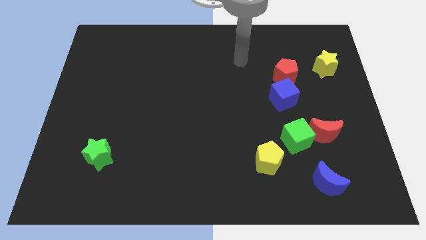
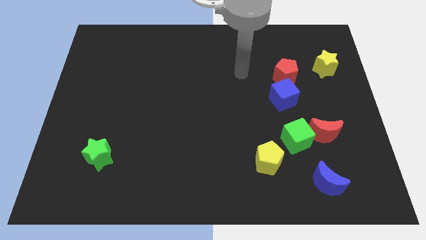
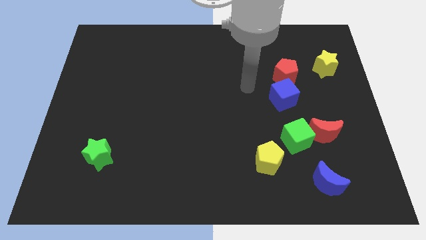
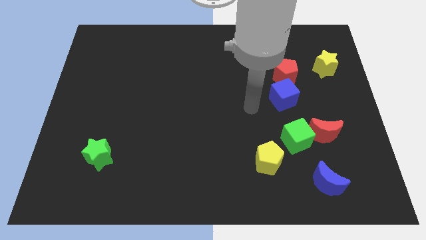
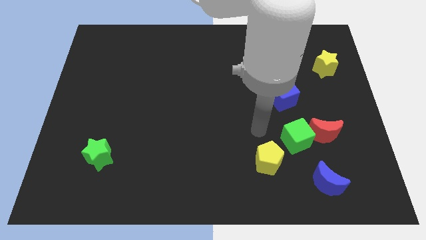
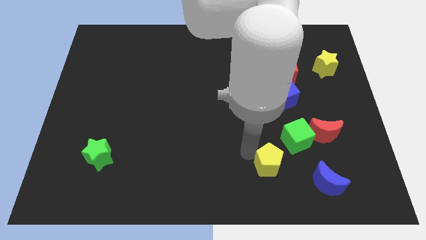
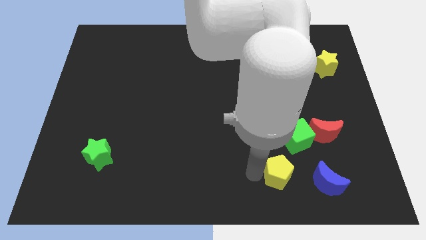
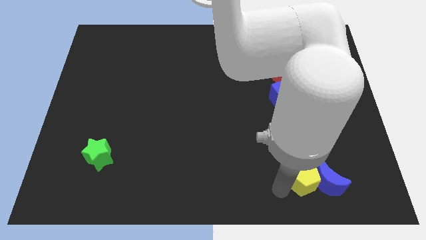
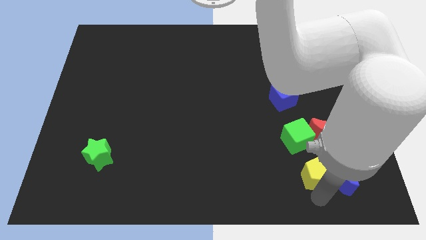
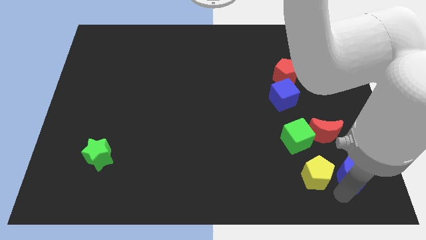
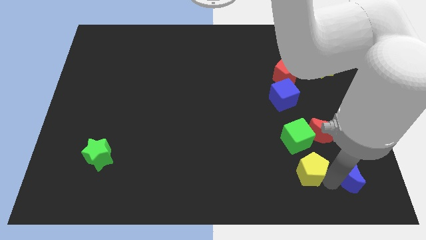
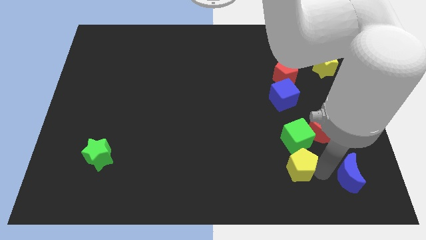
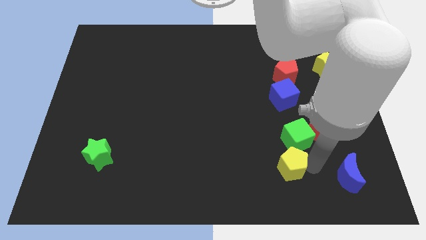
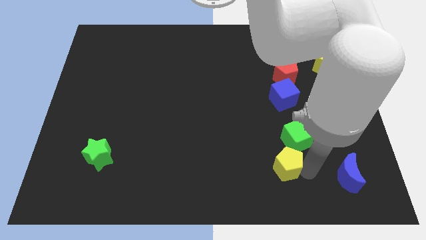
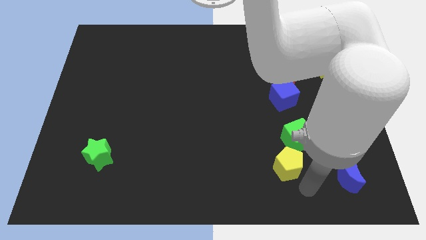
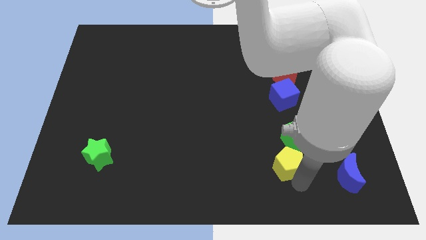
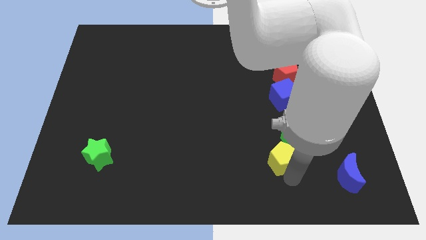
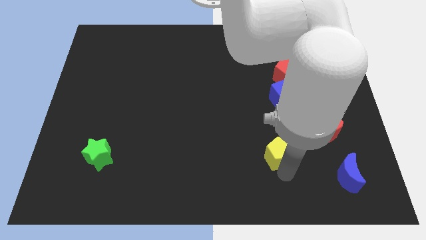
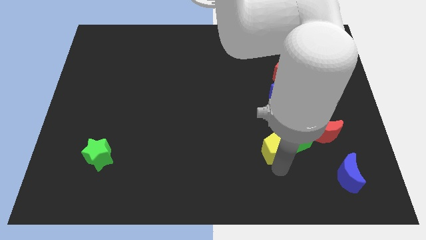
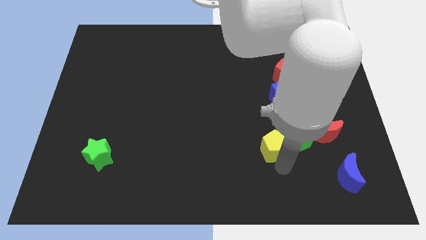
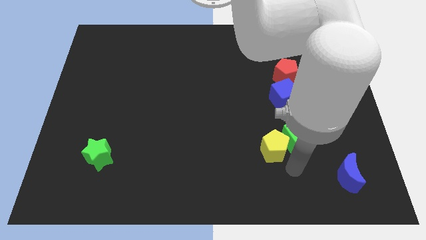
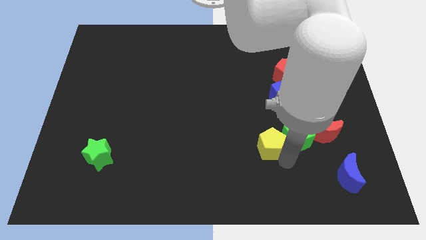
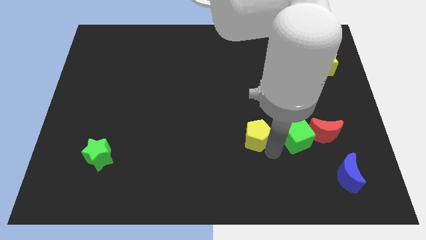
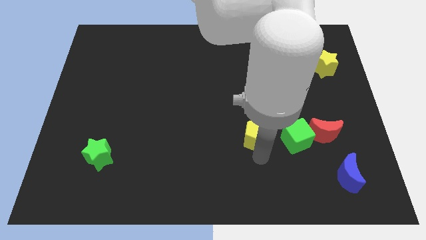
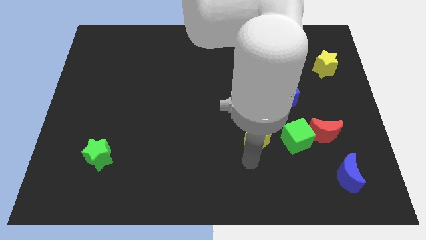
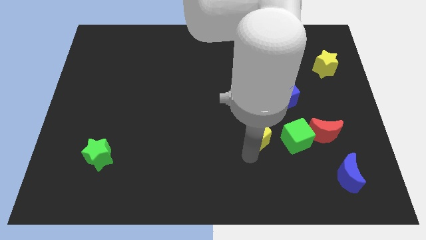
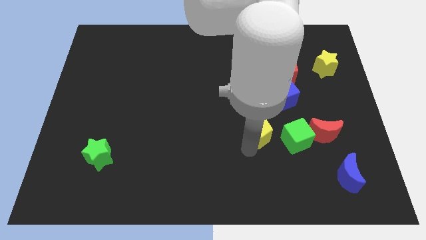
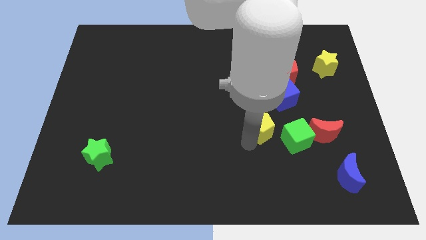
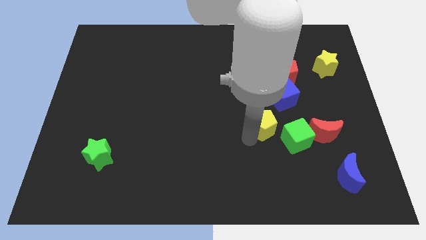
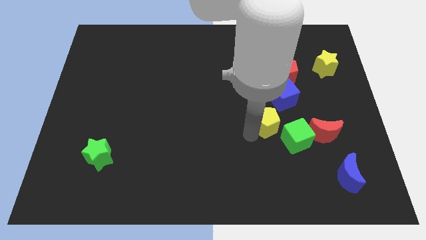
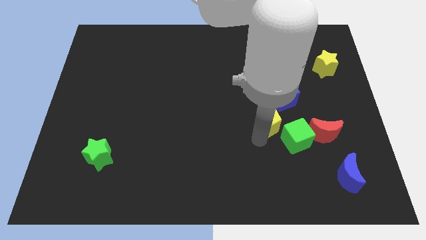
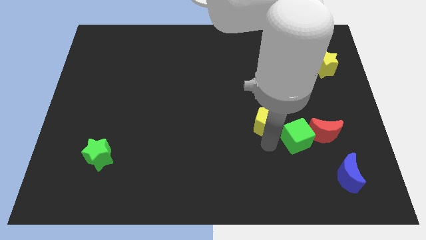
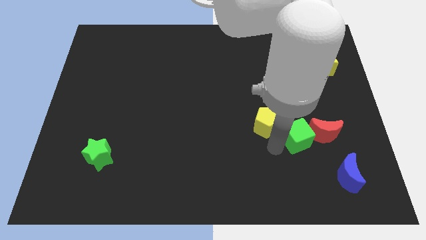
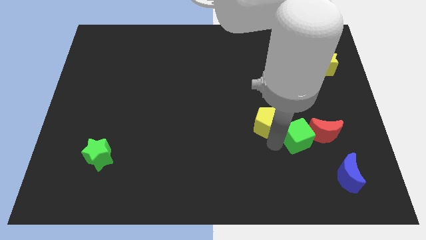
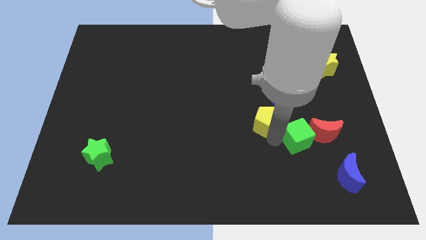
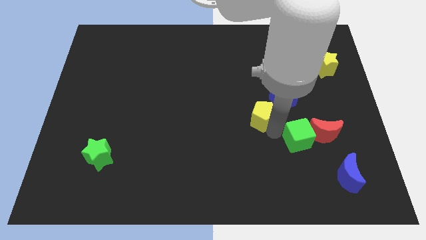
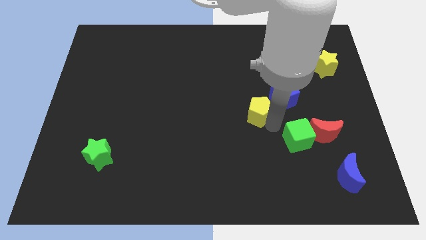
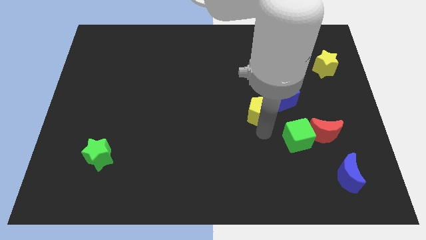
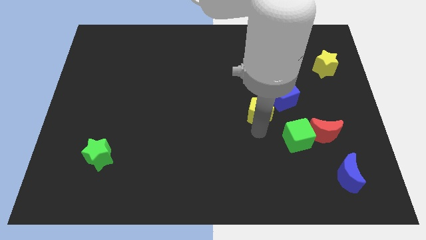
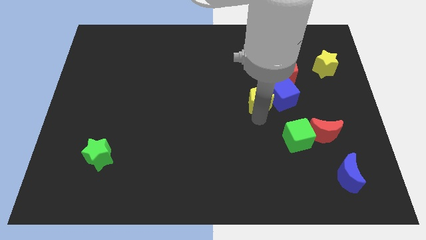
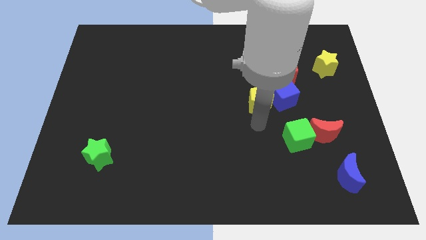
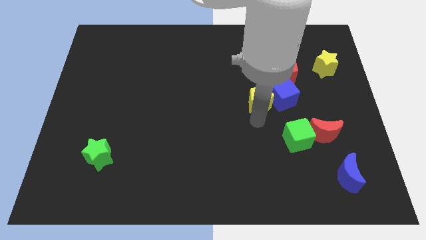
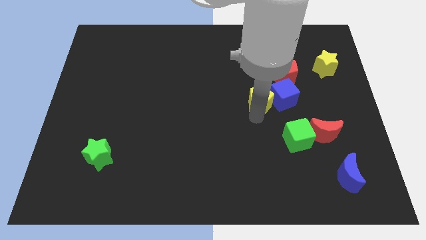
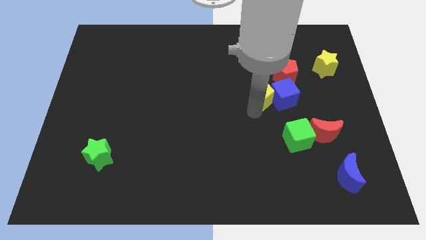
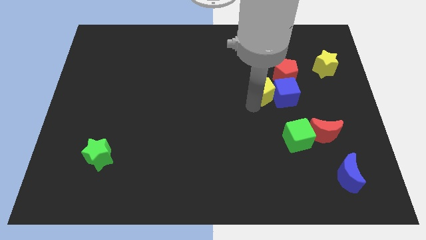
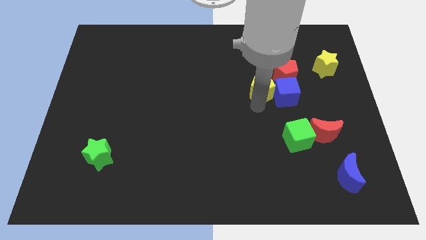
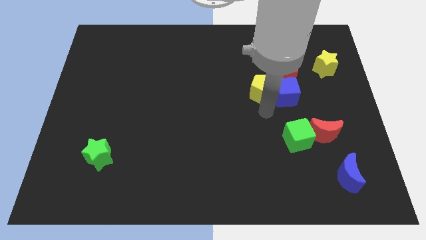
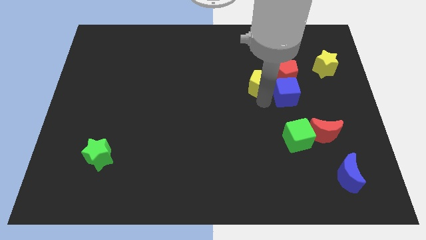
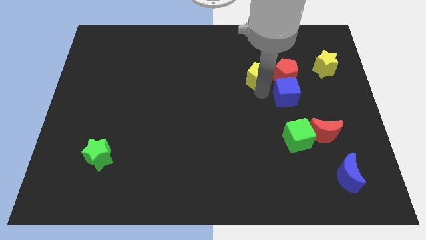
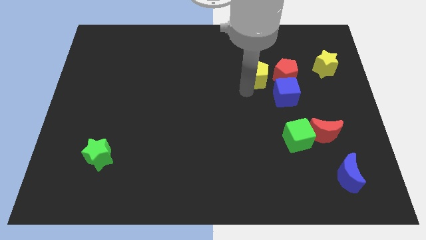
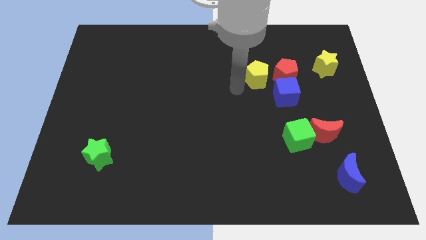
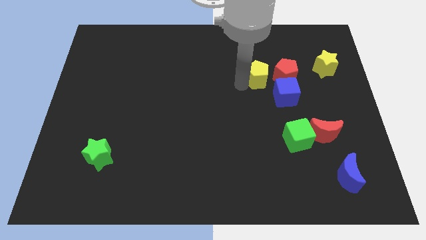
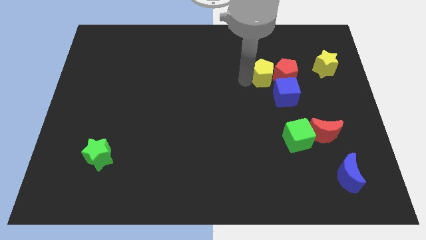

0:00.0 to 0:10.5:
slide the yellow pentagon to the top of the blue cube

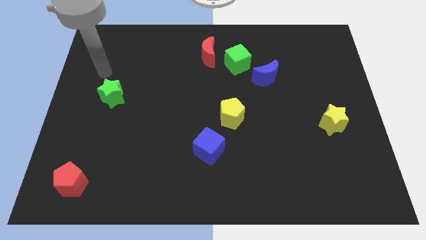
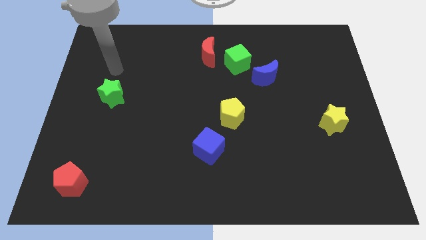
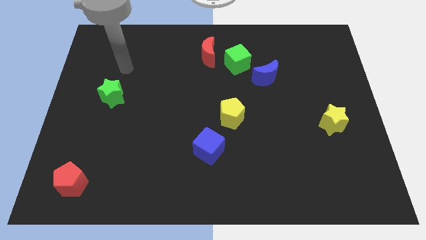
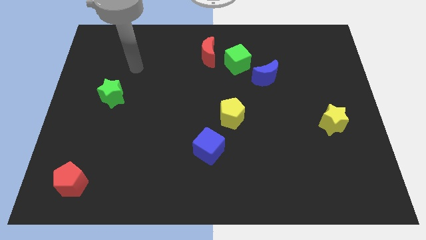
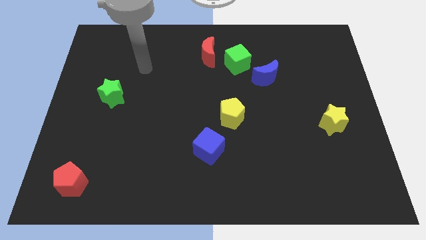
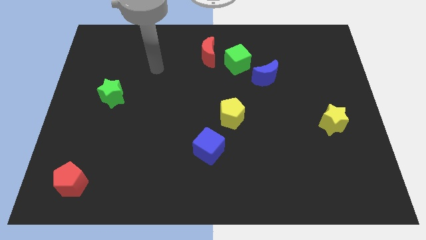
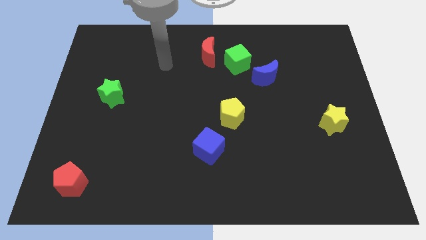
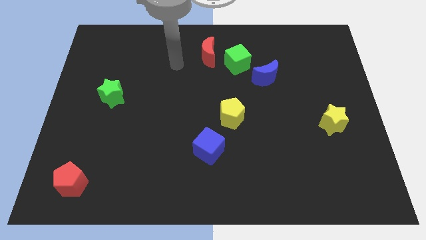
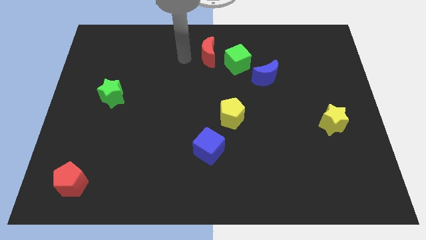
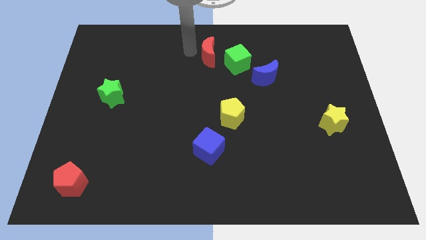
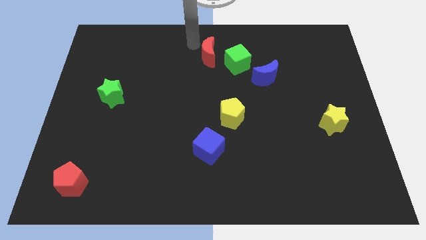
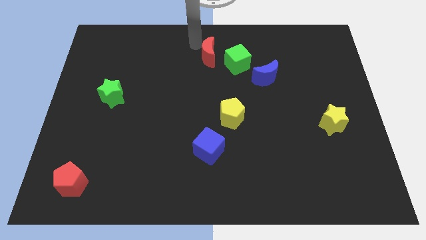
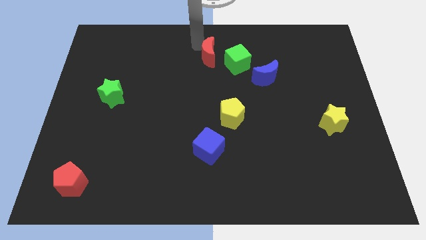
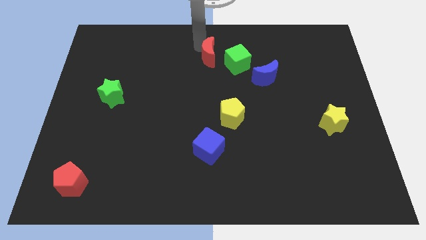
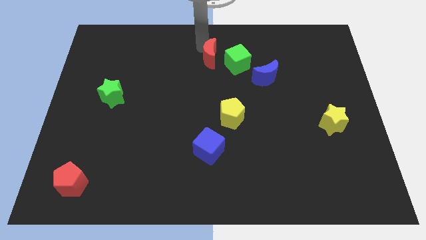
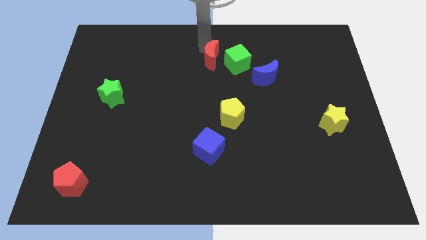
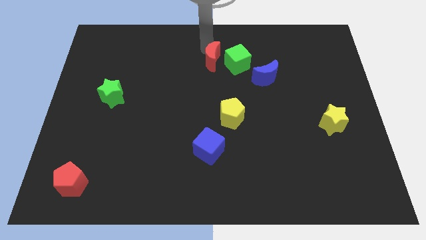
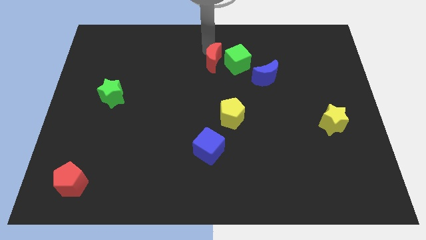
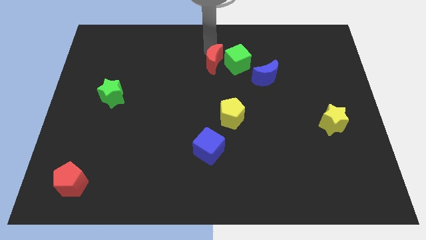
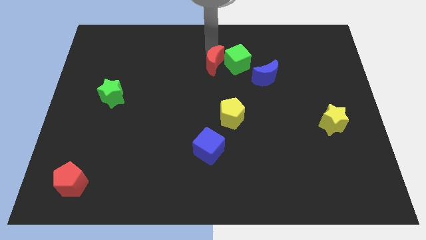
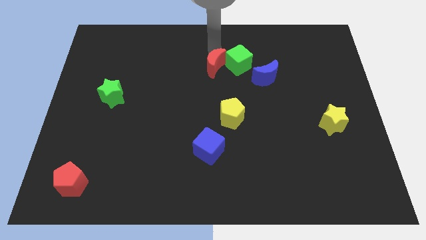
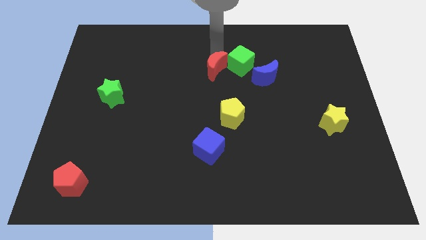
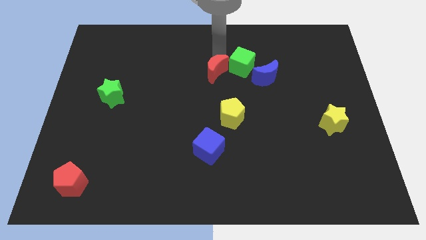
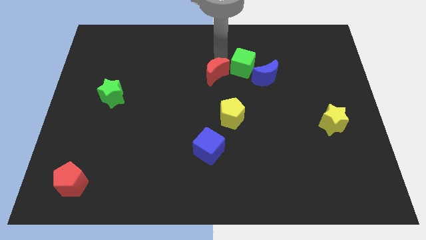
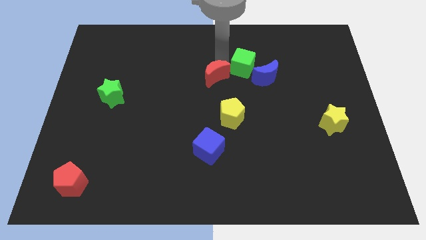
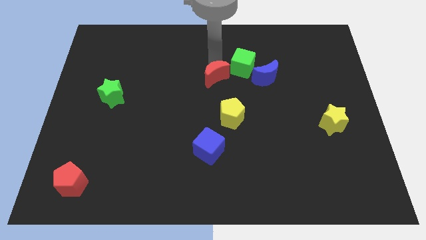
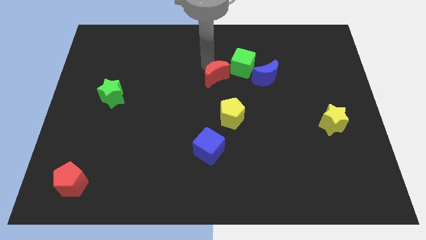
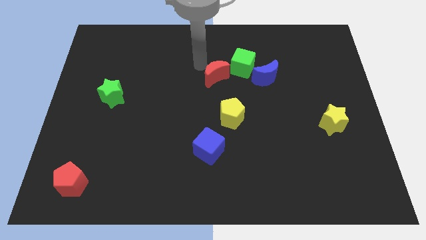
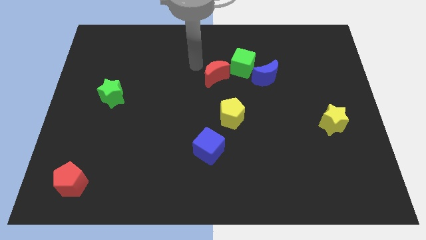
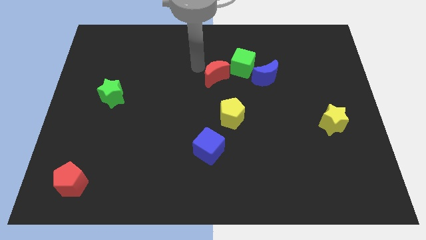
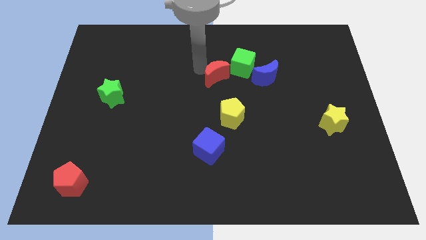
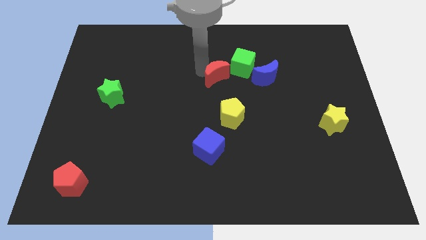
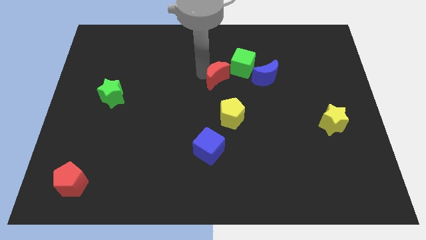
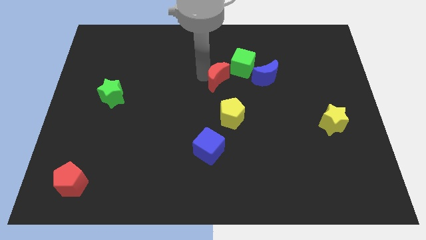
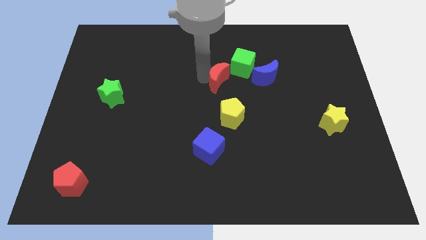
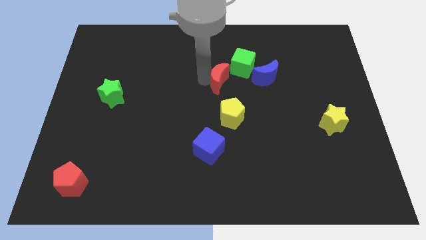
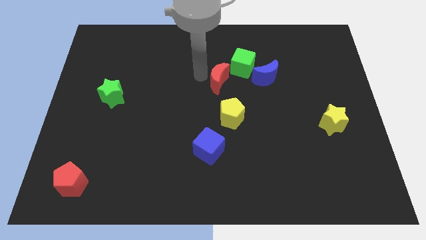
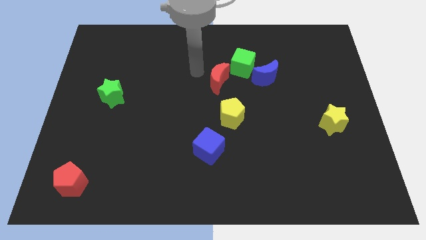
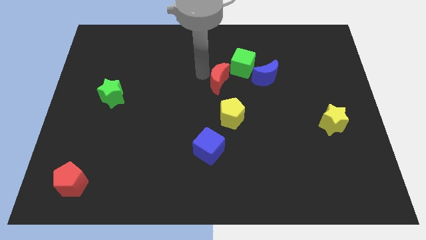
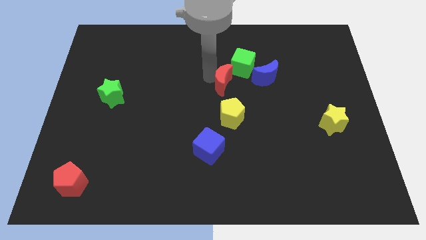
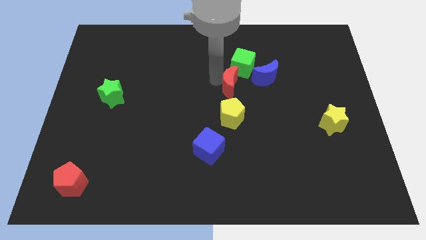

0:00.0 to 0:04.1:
move the red moon to the bottom left of the blue moon
